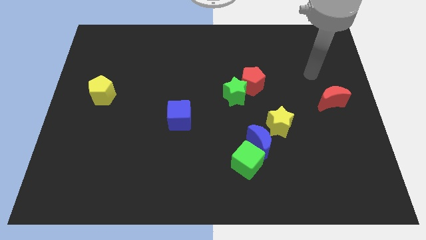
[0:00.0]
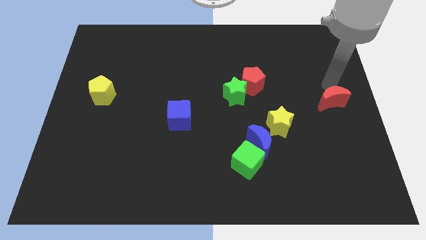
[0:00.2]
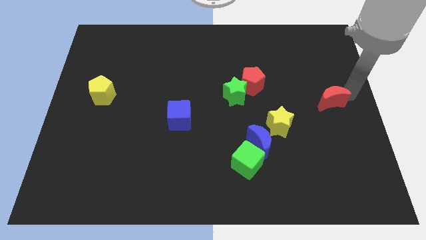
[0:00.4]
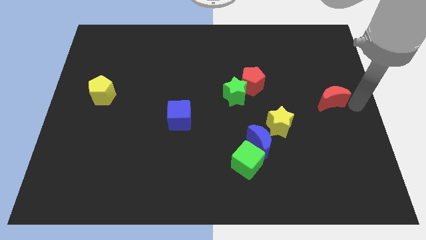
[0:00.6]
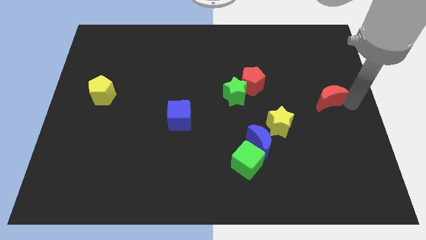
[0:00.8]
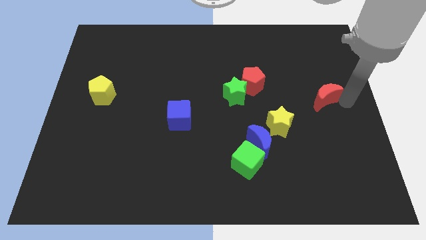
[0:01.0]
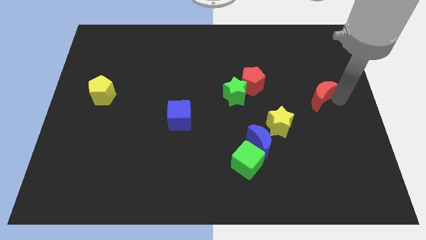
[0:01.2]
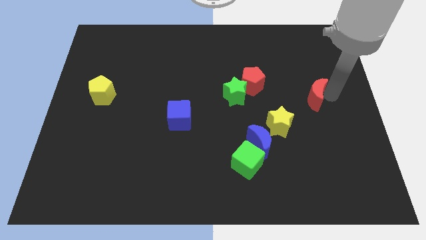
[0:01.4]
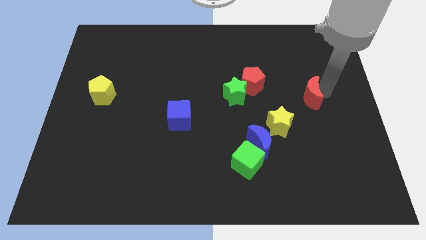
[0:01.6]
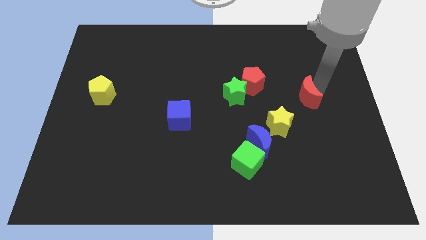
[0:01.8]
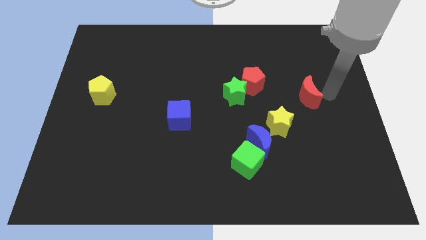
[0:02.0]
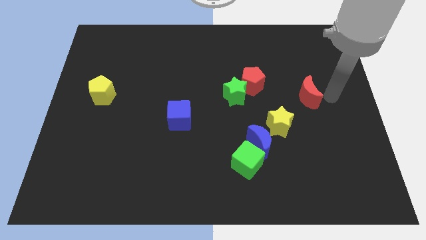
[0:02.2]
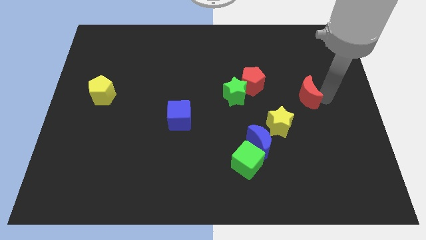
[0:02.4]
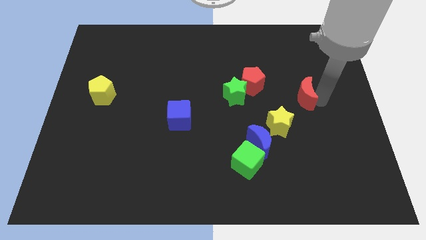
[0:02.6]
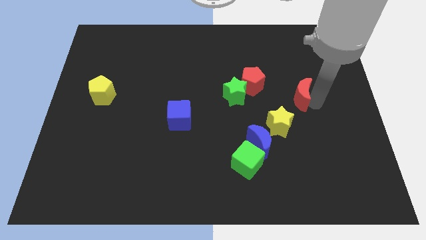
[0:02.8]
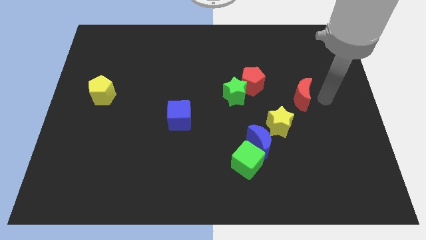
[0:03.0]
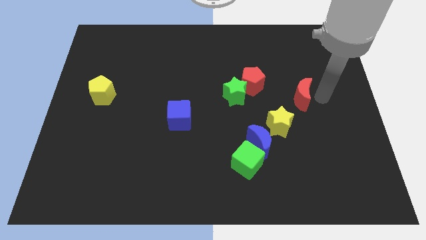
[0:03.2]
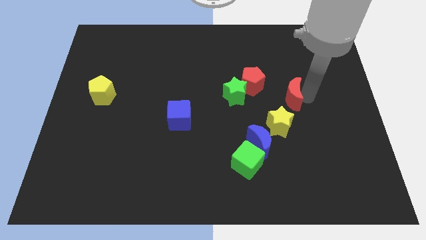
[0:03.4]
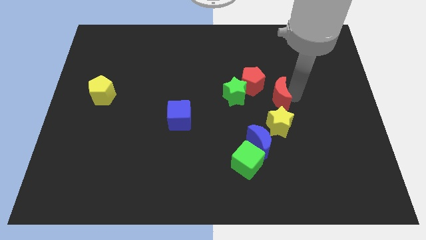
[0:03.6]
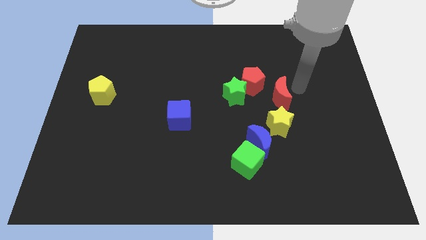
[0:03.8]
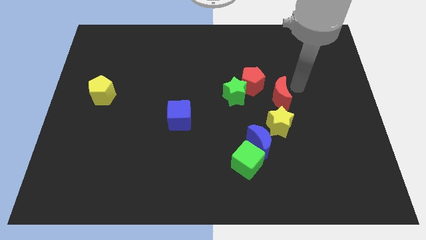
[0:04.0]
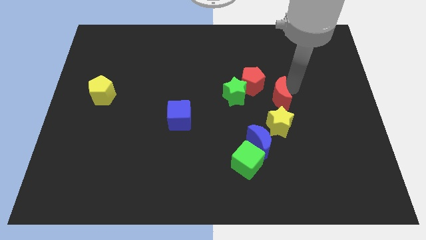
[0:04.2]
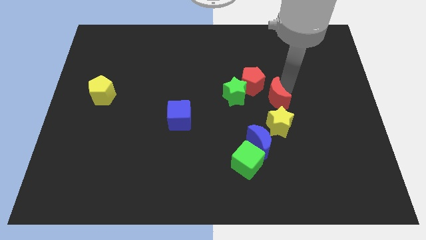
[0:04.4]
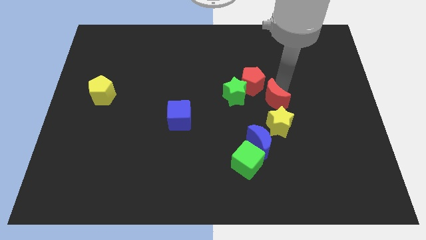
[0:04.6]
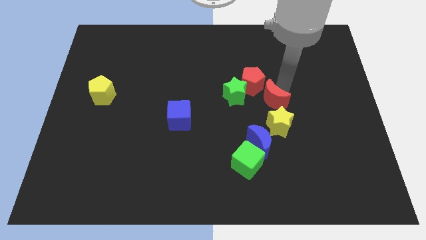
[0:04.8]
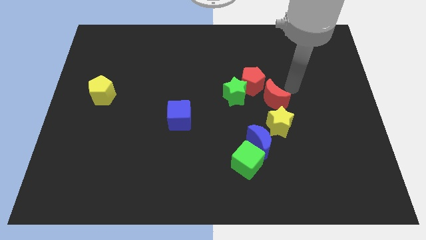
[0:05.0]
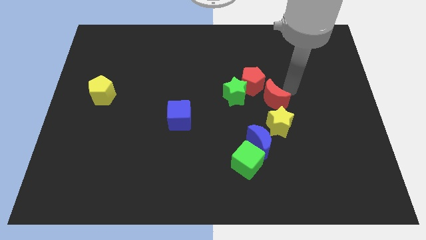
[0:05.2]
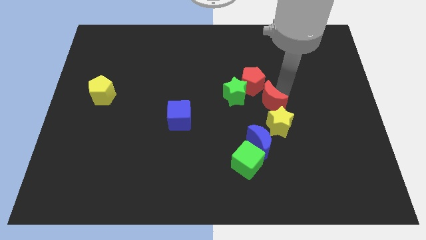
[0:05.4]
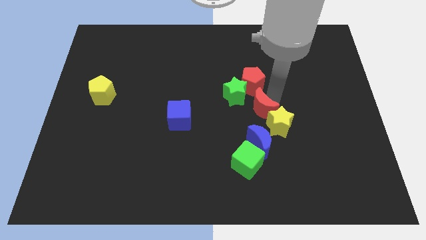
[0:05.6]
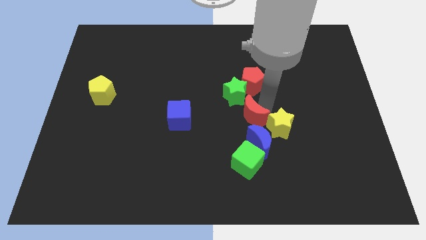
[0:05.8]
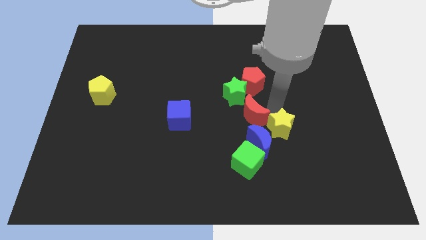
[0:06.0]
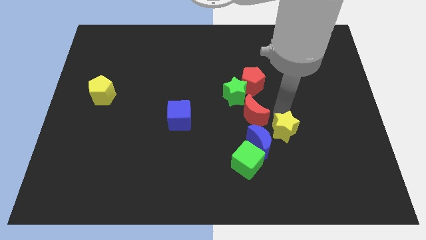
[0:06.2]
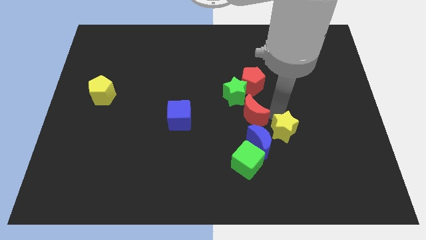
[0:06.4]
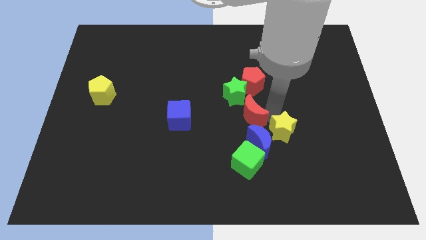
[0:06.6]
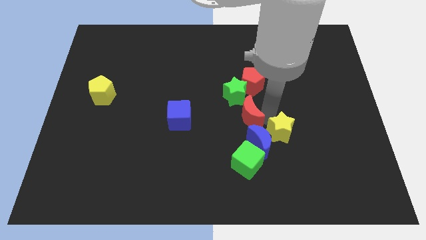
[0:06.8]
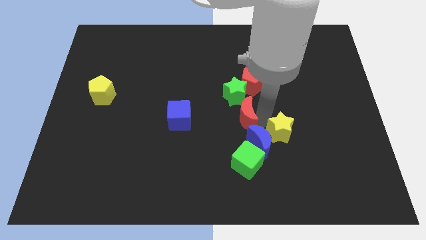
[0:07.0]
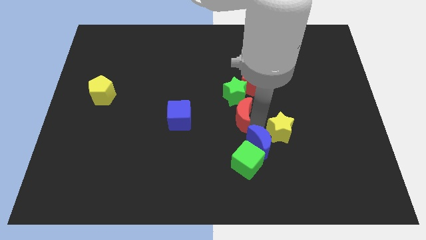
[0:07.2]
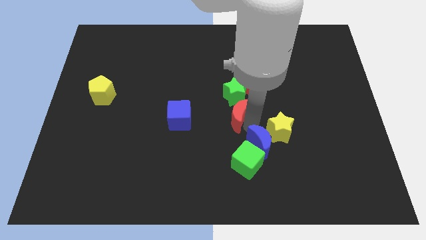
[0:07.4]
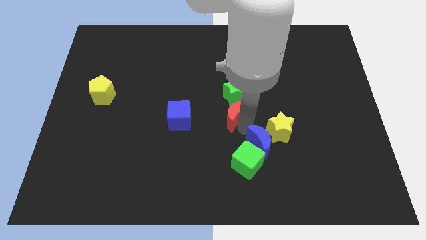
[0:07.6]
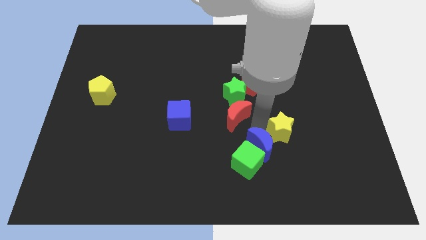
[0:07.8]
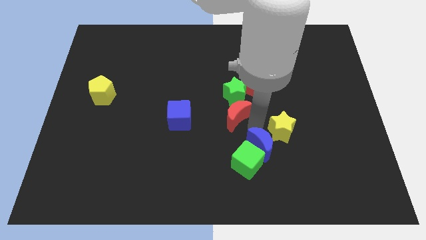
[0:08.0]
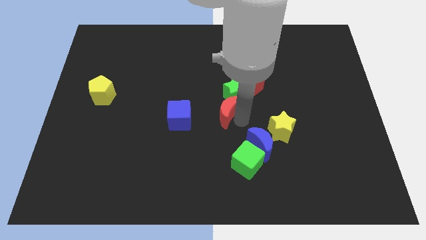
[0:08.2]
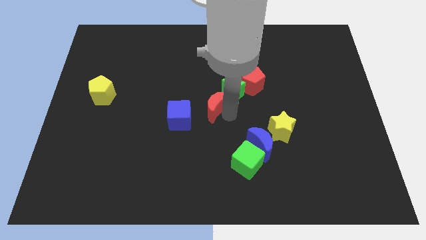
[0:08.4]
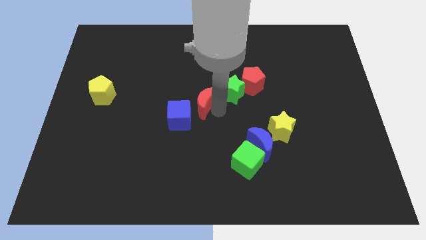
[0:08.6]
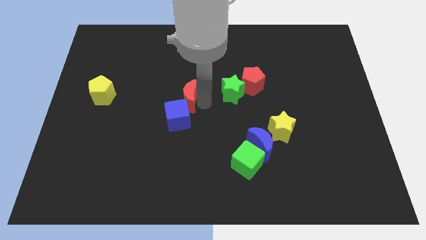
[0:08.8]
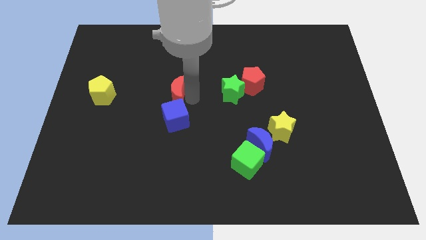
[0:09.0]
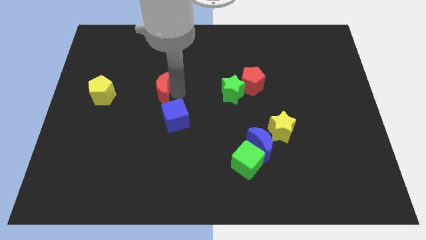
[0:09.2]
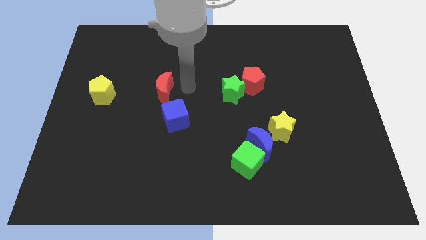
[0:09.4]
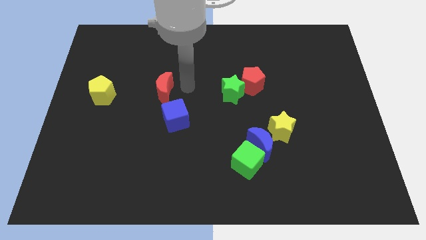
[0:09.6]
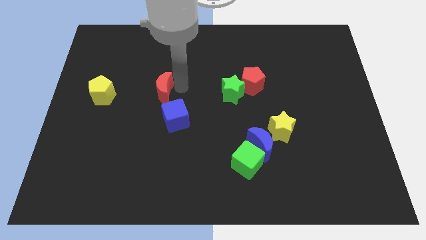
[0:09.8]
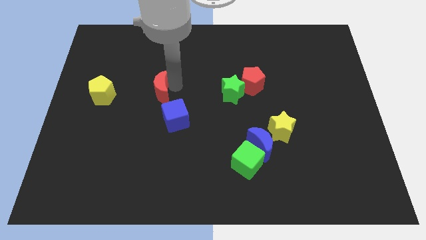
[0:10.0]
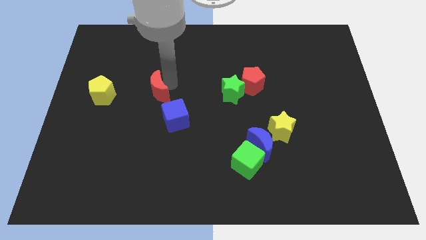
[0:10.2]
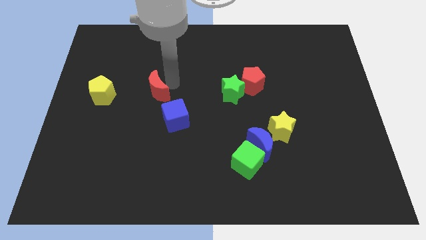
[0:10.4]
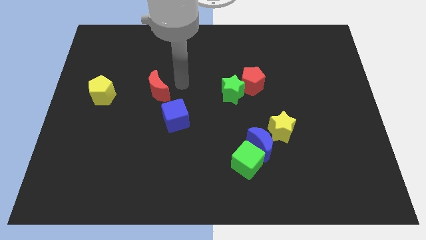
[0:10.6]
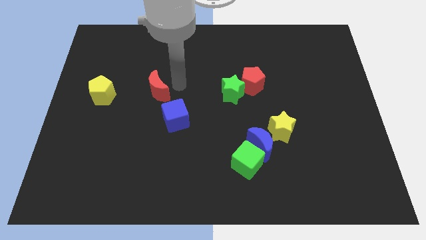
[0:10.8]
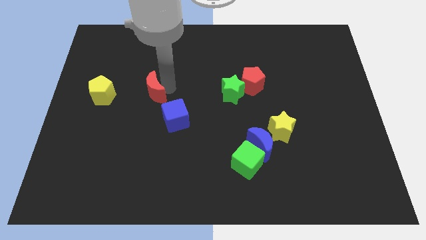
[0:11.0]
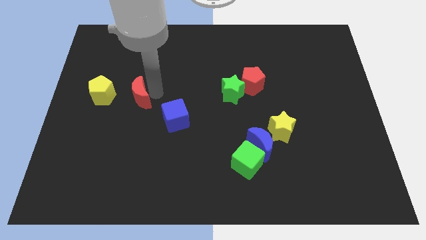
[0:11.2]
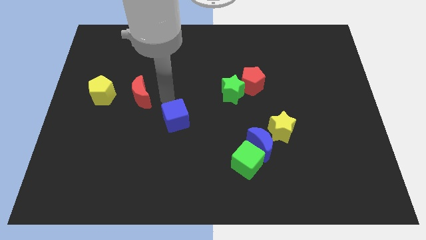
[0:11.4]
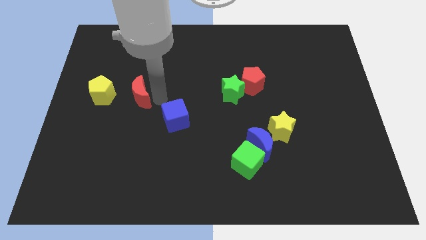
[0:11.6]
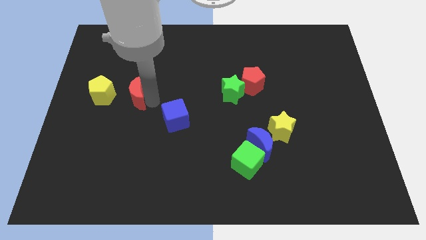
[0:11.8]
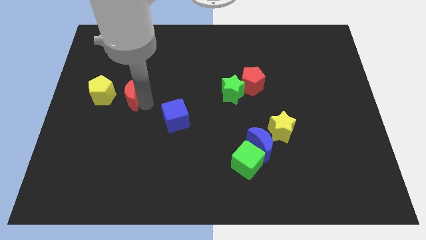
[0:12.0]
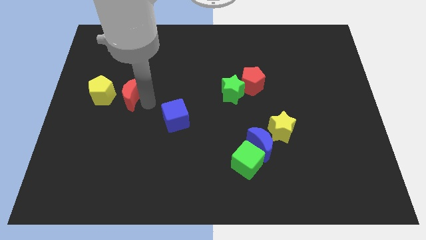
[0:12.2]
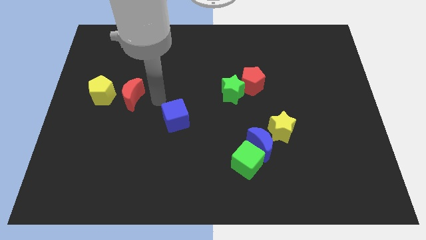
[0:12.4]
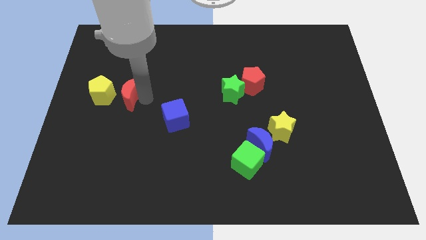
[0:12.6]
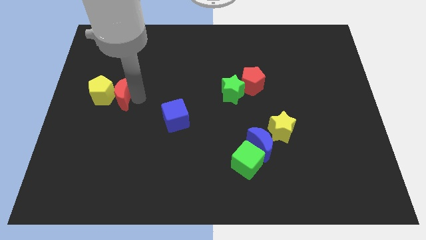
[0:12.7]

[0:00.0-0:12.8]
push the red moon to the yellow pentagon
